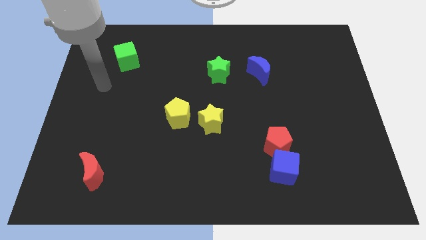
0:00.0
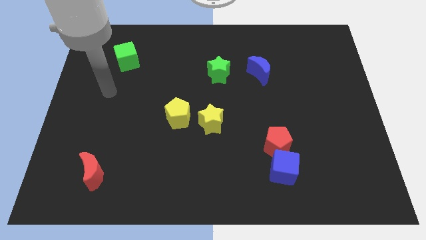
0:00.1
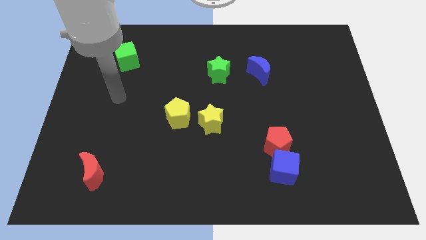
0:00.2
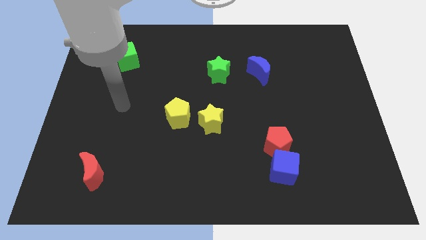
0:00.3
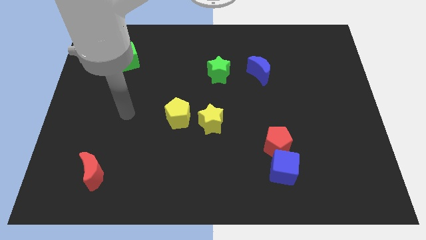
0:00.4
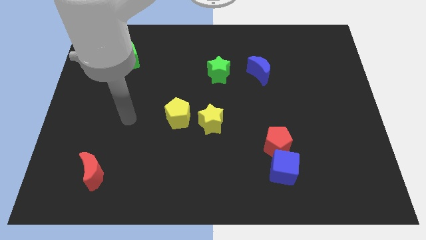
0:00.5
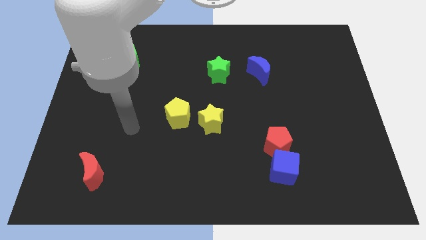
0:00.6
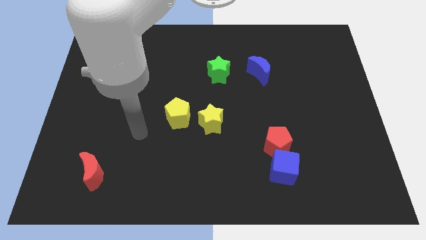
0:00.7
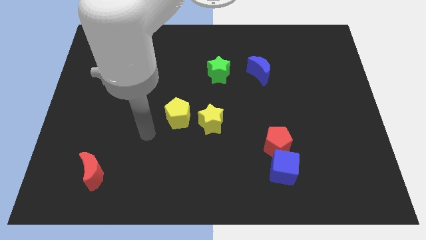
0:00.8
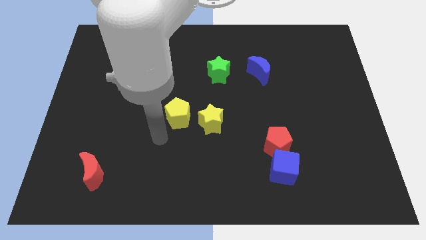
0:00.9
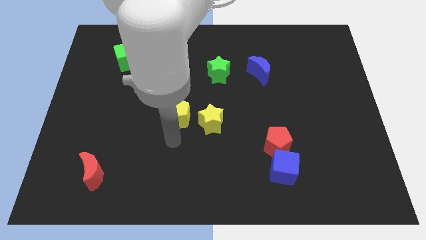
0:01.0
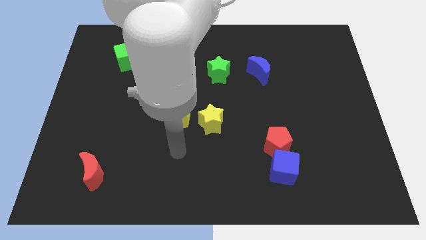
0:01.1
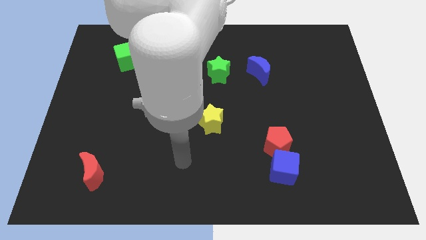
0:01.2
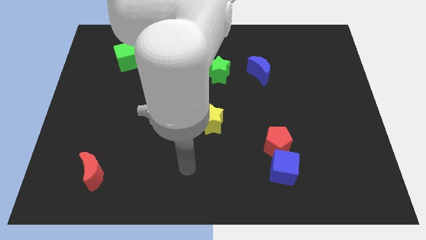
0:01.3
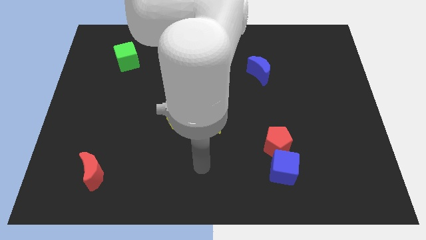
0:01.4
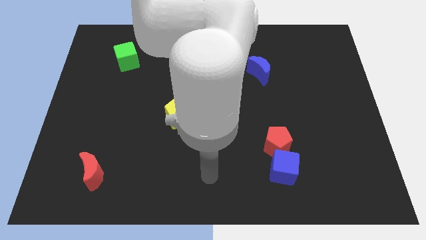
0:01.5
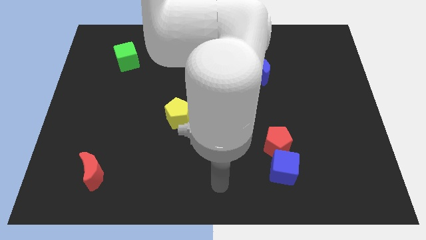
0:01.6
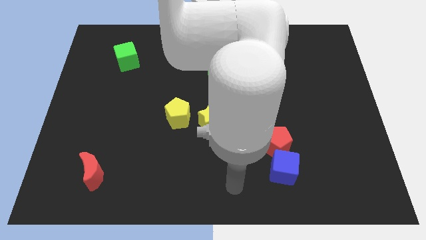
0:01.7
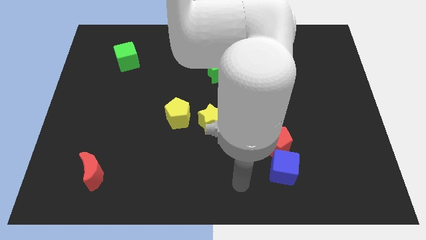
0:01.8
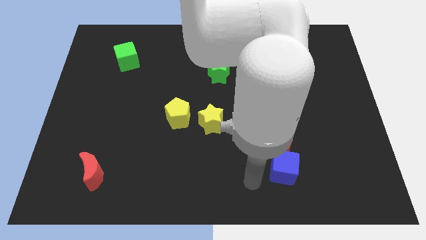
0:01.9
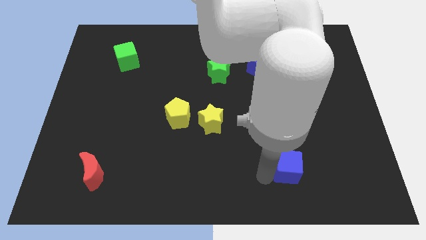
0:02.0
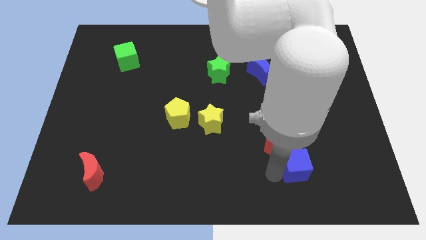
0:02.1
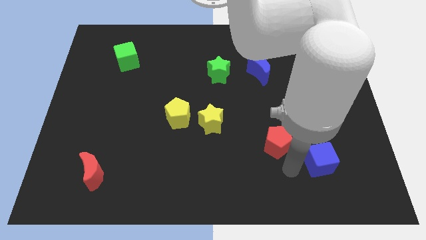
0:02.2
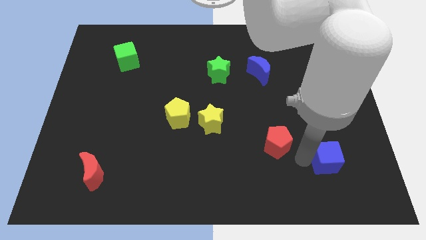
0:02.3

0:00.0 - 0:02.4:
pull the red pentagon apart from the blue cube

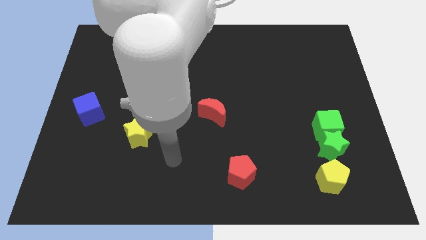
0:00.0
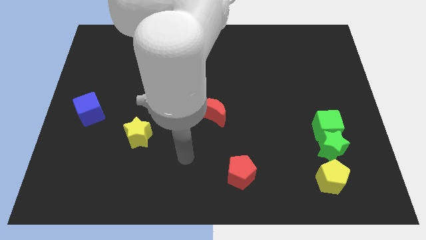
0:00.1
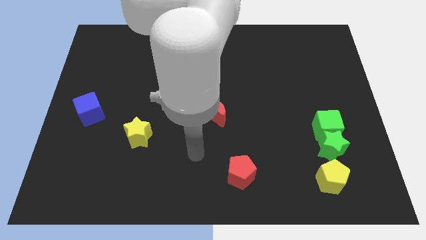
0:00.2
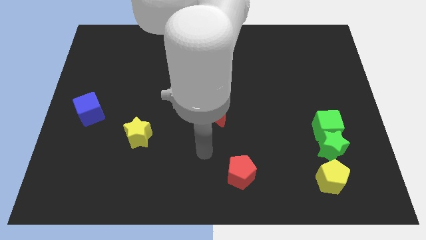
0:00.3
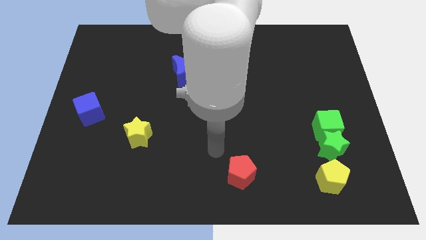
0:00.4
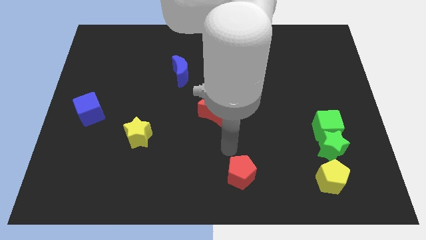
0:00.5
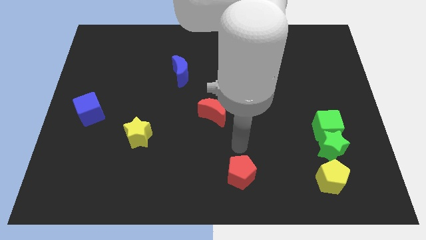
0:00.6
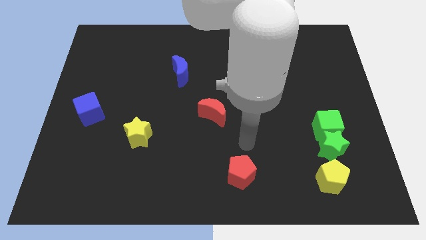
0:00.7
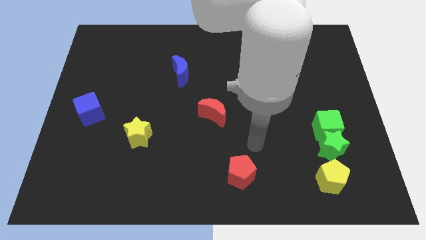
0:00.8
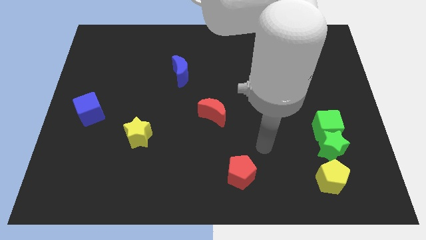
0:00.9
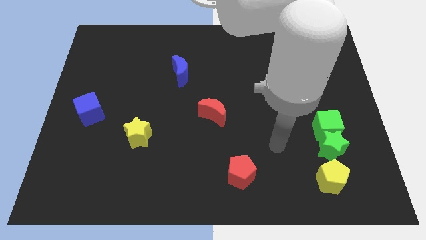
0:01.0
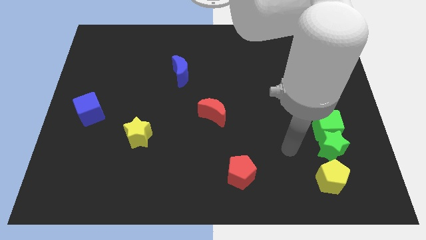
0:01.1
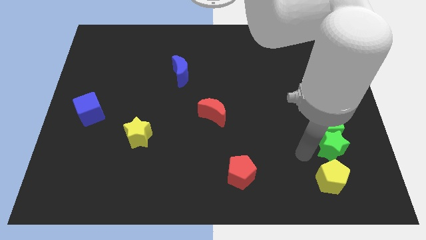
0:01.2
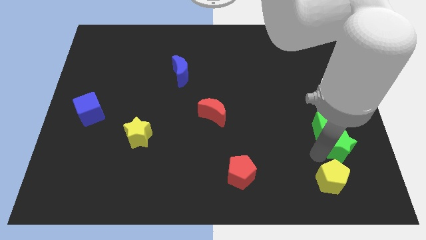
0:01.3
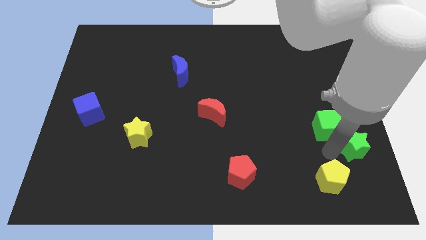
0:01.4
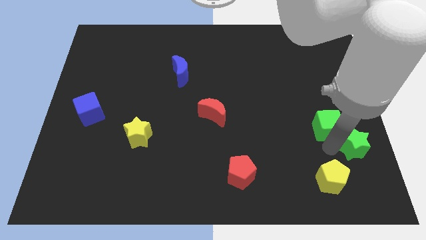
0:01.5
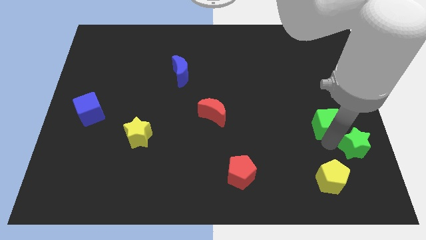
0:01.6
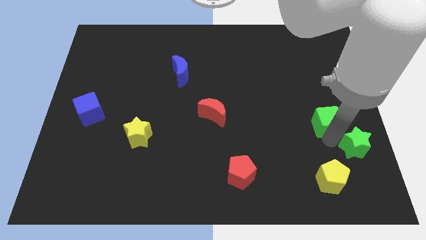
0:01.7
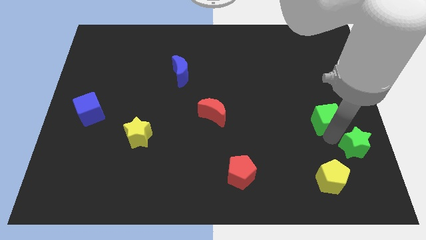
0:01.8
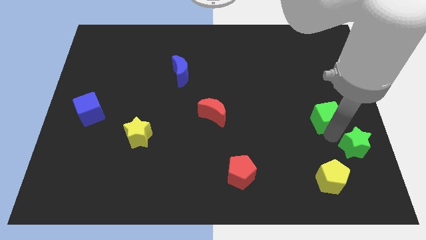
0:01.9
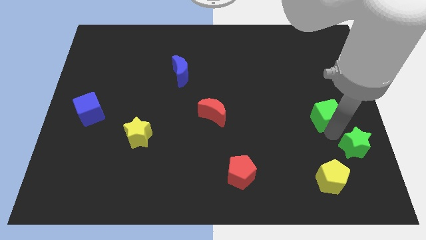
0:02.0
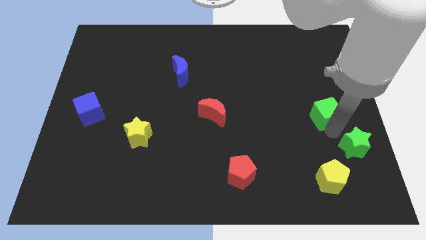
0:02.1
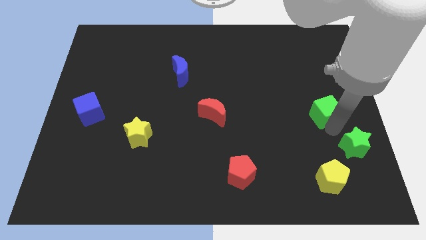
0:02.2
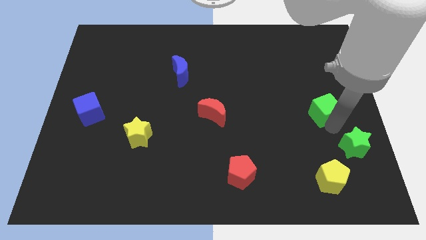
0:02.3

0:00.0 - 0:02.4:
separate the green cube from the green star

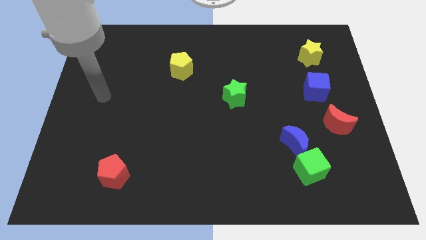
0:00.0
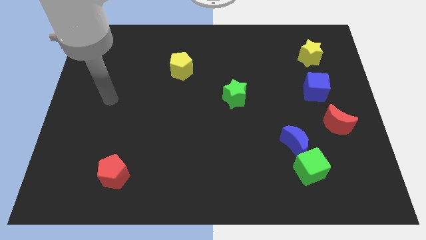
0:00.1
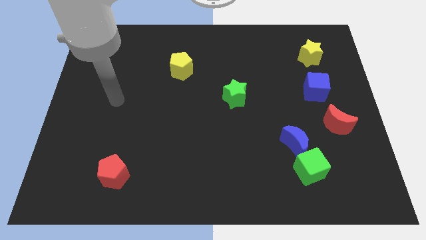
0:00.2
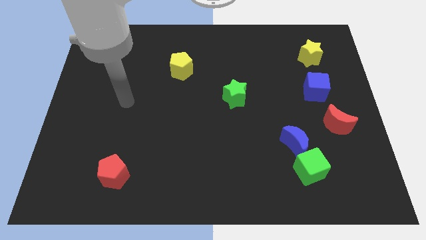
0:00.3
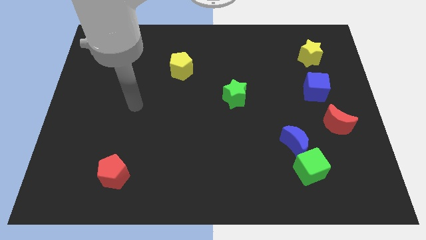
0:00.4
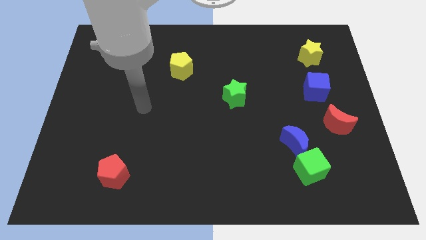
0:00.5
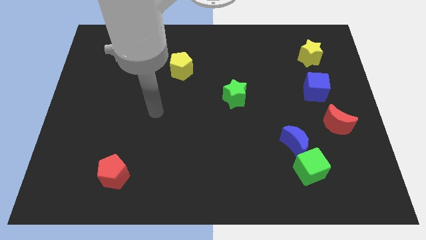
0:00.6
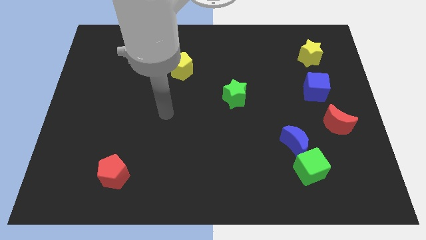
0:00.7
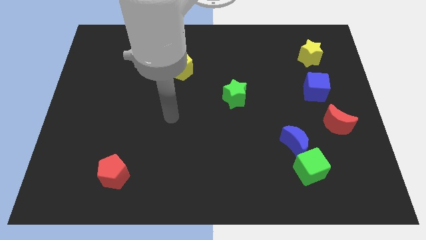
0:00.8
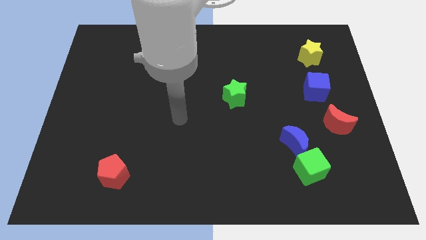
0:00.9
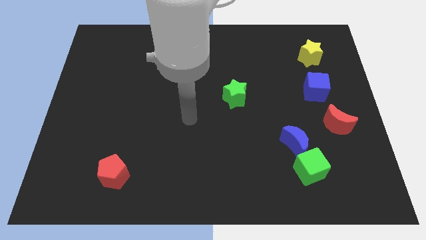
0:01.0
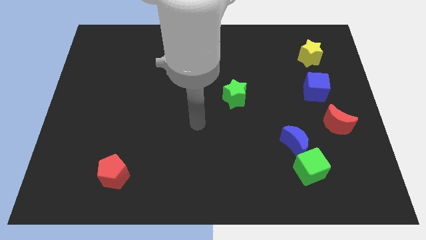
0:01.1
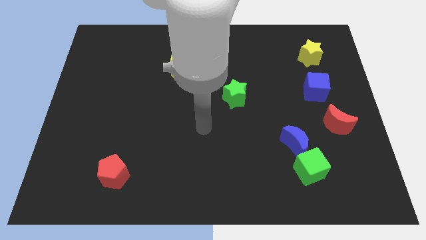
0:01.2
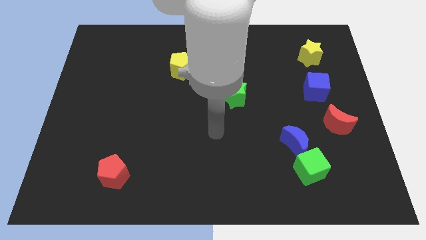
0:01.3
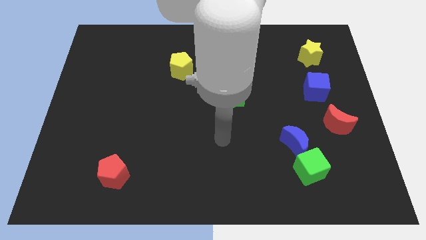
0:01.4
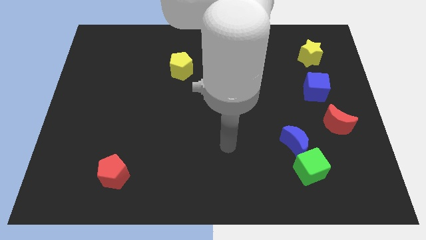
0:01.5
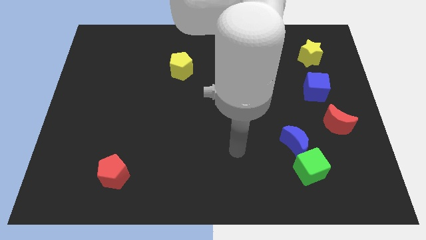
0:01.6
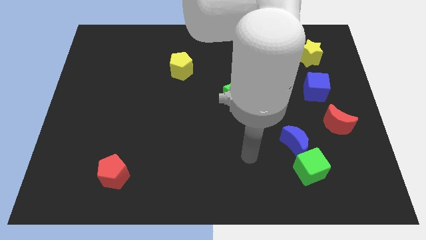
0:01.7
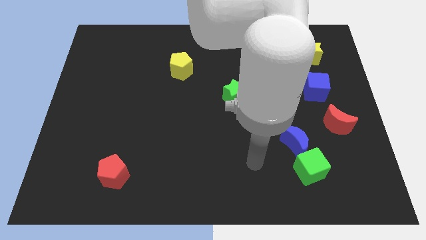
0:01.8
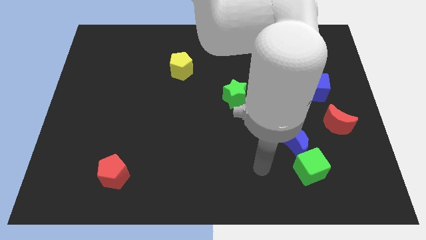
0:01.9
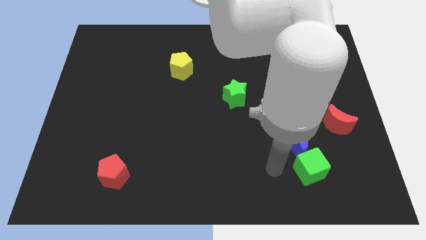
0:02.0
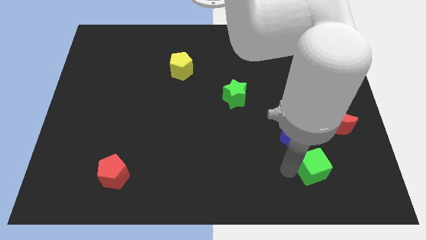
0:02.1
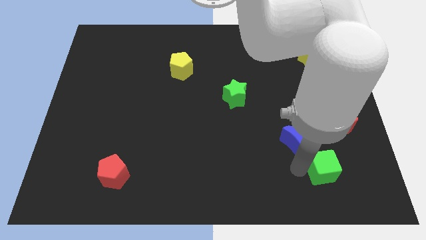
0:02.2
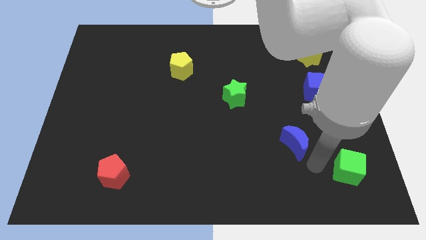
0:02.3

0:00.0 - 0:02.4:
pull the blue moon apart from the green cube

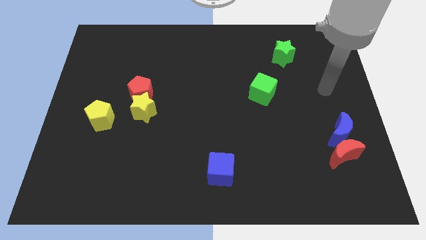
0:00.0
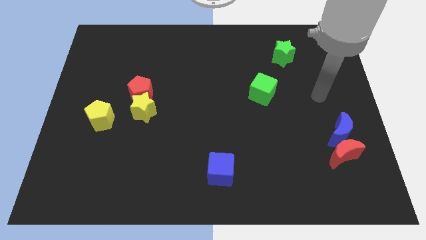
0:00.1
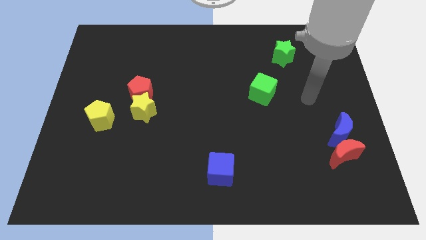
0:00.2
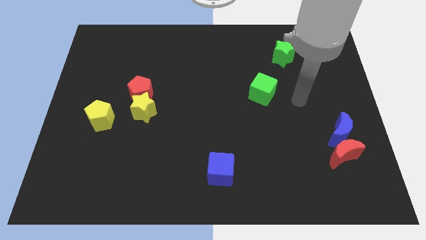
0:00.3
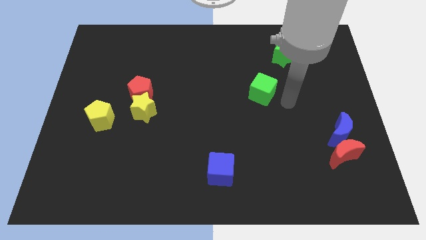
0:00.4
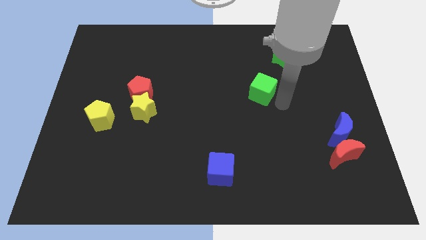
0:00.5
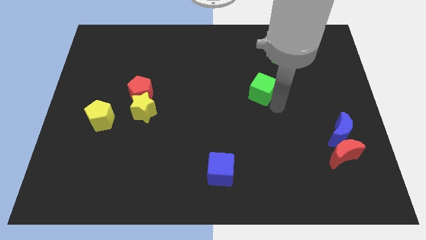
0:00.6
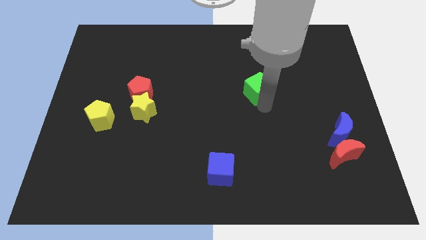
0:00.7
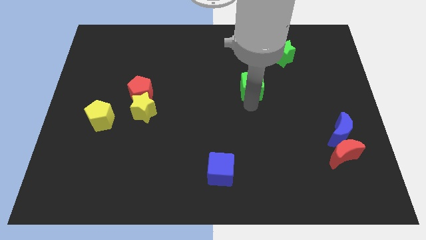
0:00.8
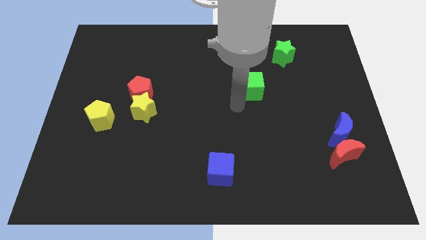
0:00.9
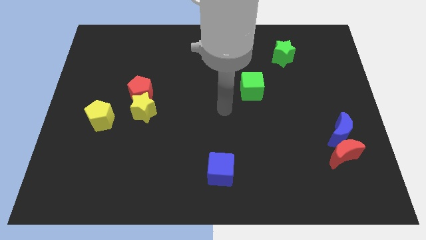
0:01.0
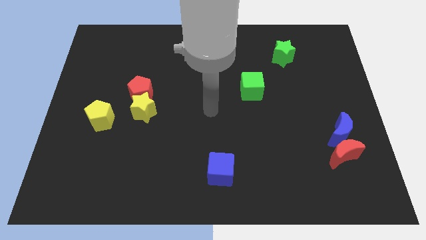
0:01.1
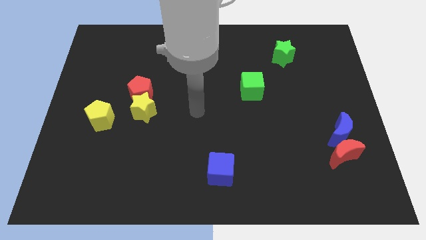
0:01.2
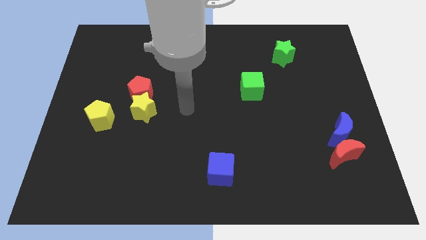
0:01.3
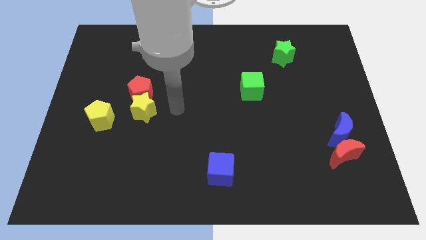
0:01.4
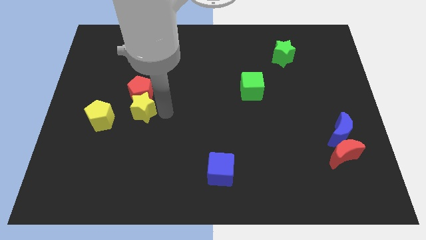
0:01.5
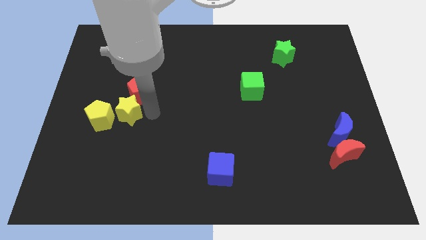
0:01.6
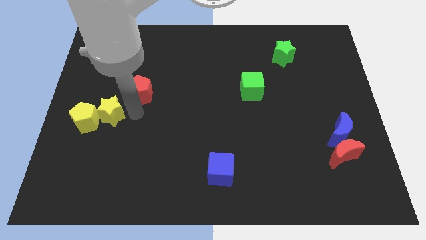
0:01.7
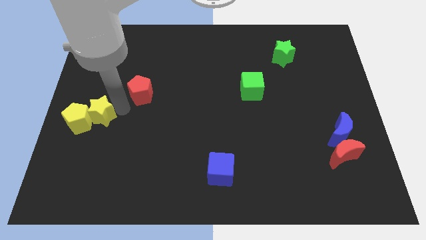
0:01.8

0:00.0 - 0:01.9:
move the red pentagon away from the yellow star

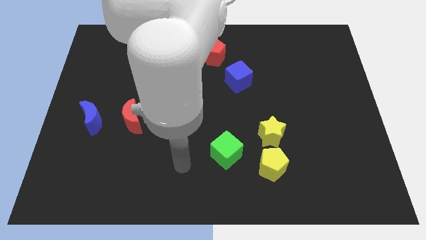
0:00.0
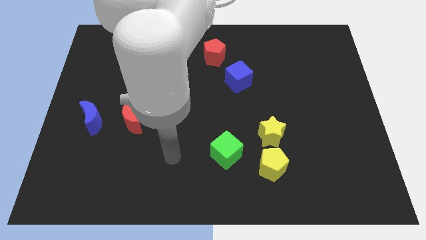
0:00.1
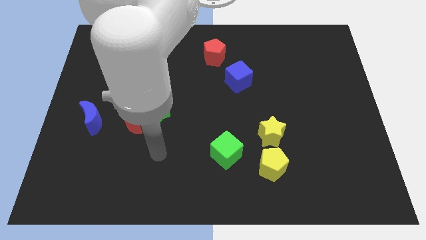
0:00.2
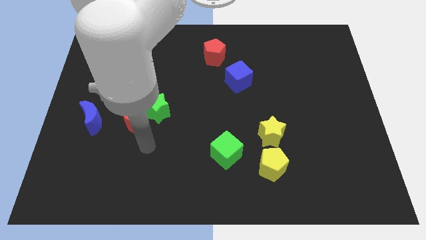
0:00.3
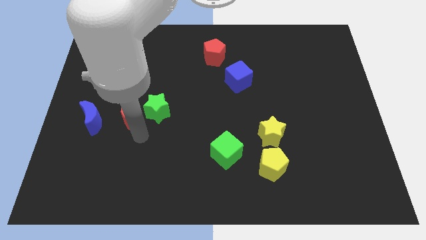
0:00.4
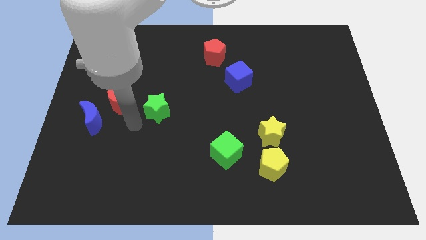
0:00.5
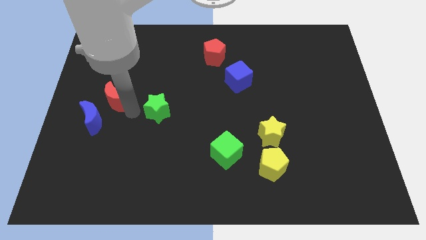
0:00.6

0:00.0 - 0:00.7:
separate the green star from the red moon
